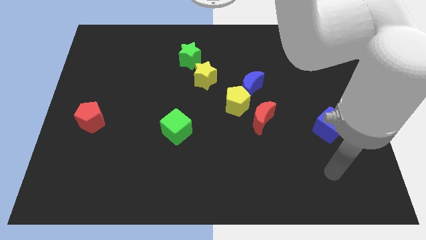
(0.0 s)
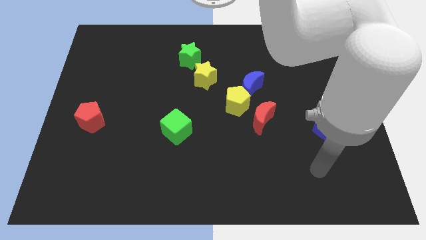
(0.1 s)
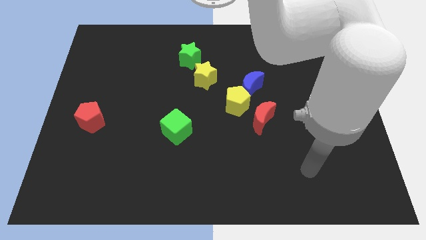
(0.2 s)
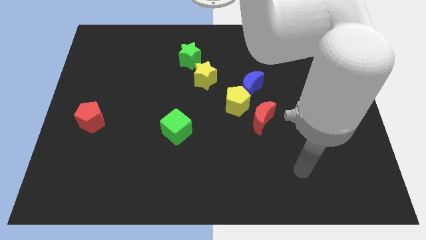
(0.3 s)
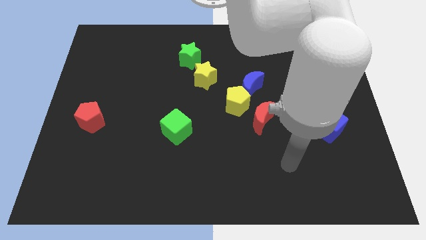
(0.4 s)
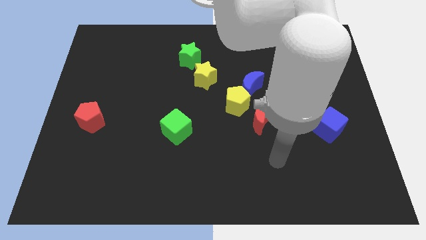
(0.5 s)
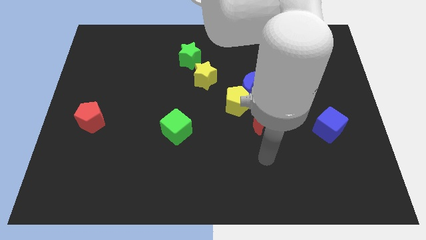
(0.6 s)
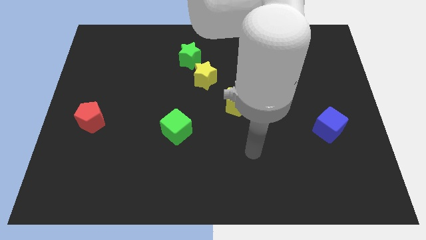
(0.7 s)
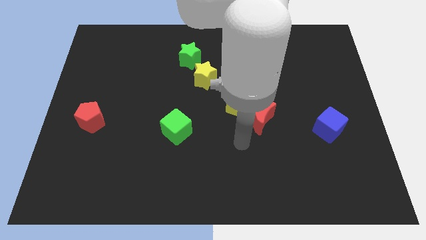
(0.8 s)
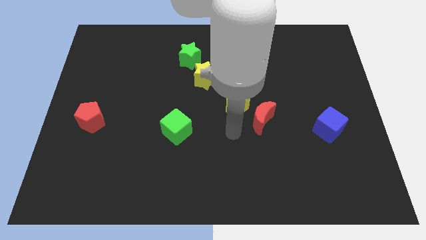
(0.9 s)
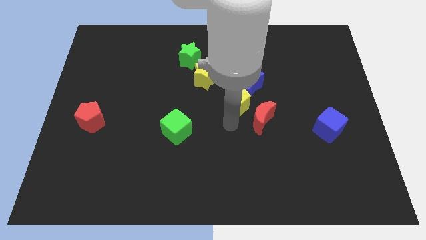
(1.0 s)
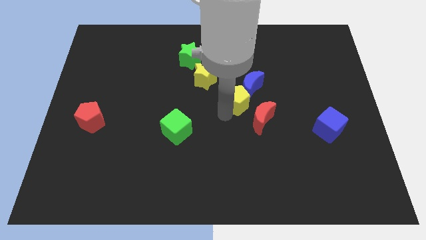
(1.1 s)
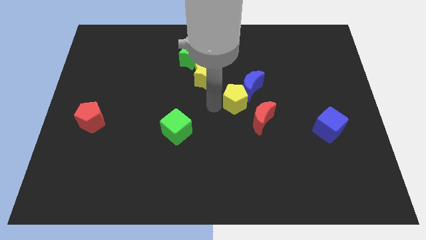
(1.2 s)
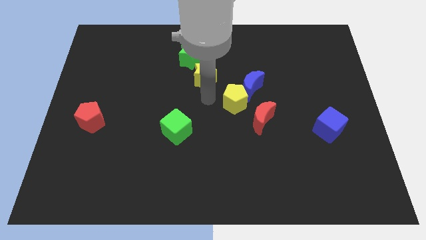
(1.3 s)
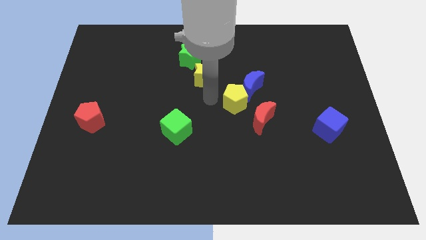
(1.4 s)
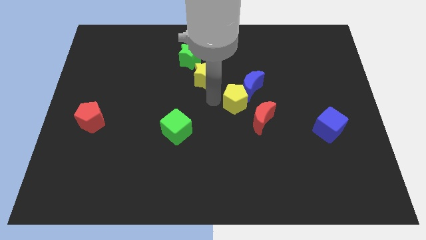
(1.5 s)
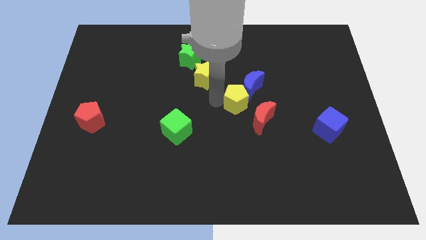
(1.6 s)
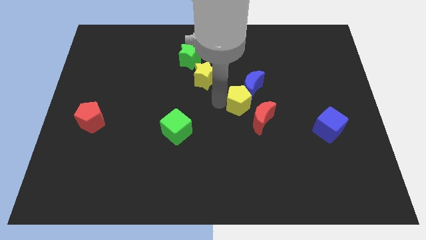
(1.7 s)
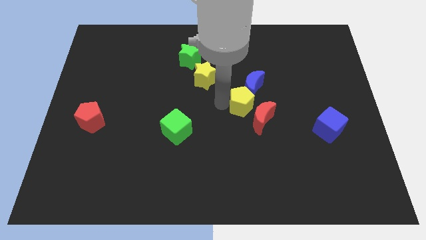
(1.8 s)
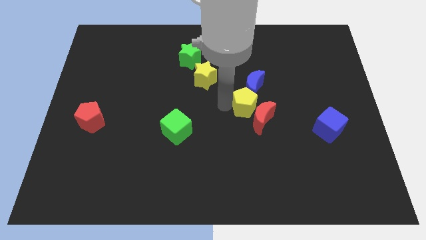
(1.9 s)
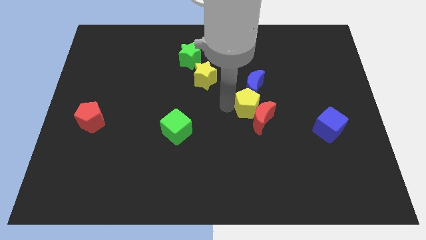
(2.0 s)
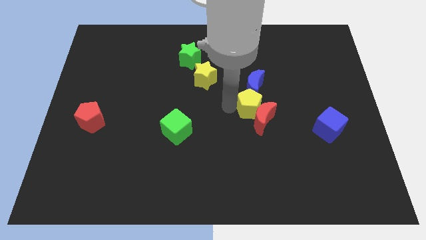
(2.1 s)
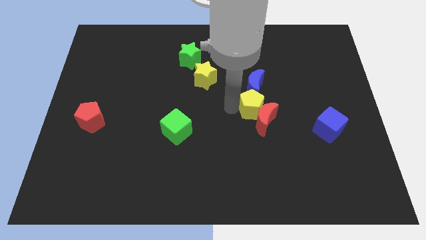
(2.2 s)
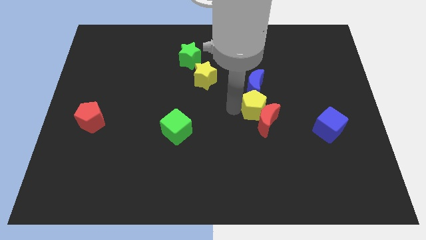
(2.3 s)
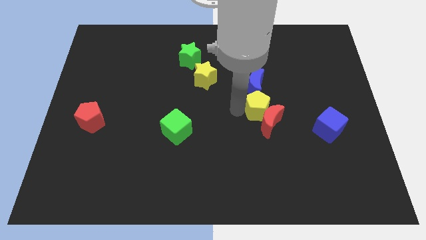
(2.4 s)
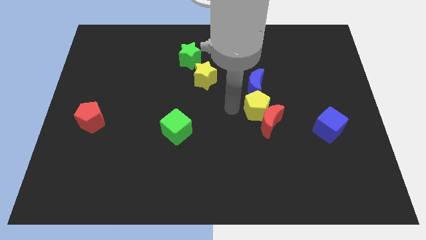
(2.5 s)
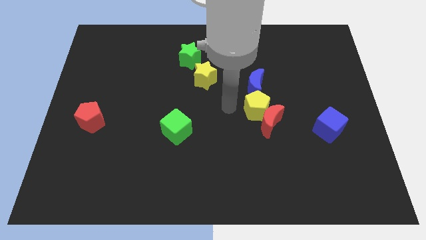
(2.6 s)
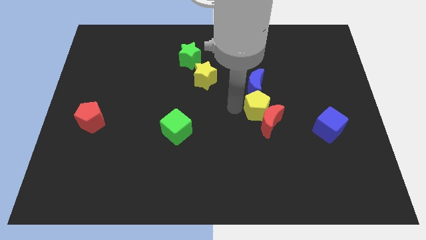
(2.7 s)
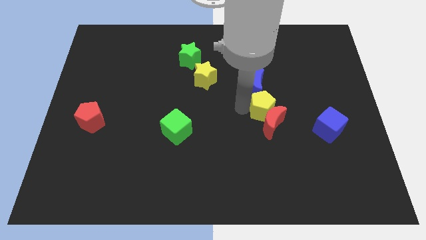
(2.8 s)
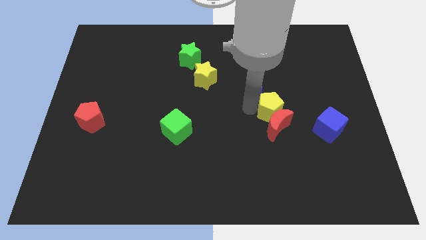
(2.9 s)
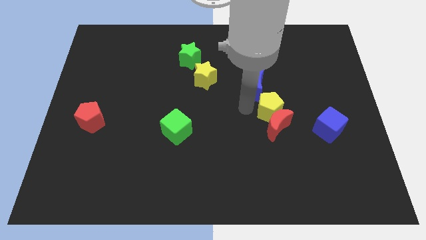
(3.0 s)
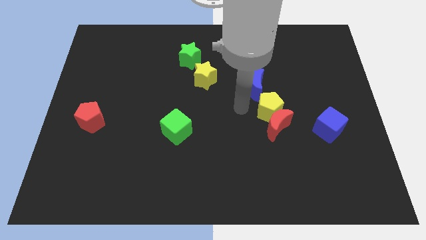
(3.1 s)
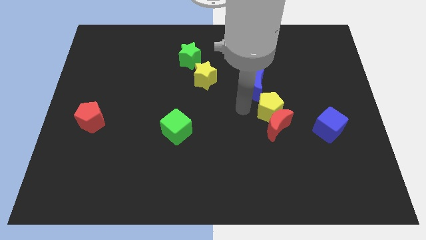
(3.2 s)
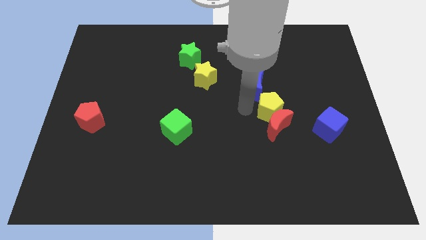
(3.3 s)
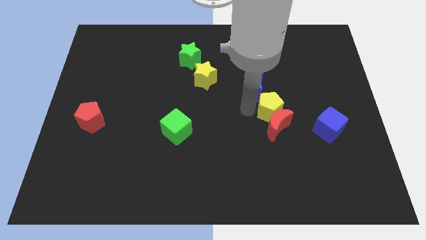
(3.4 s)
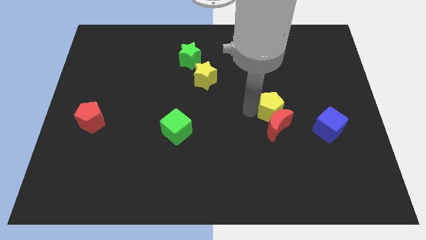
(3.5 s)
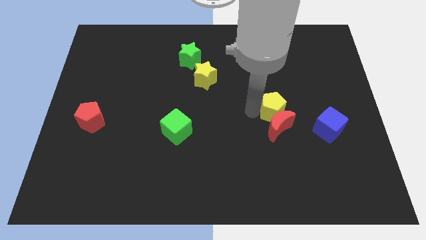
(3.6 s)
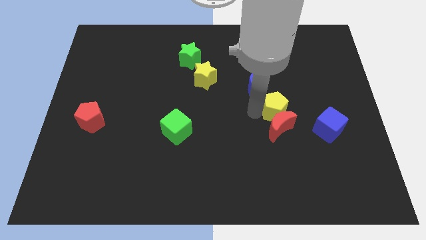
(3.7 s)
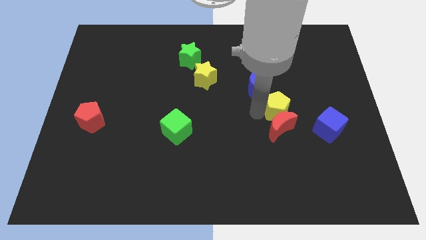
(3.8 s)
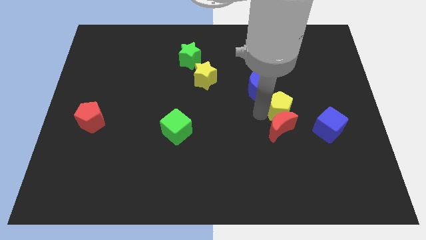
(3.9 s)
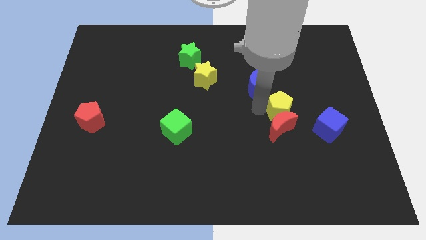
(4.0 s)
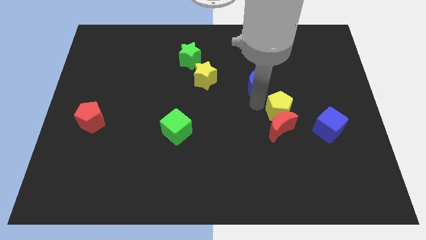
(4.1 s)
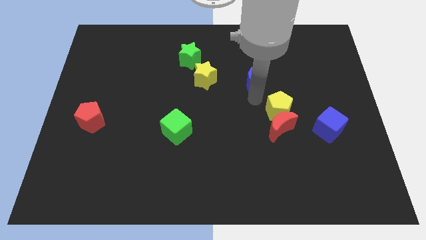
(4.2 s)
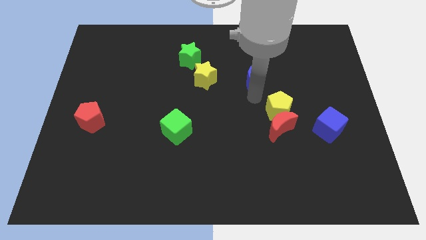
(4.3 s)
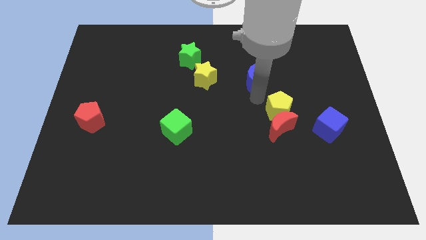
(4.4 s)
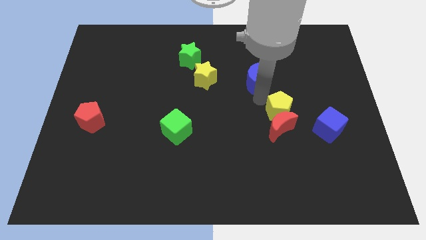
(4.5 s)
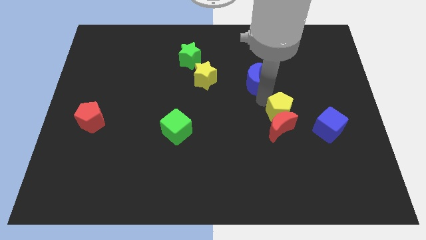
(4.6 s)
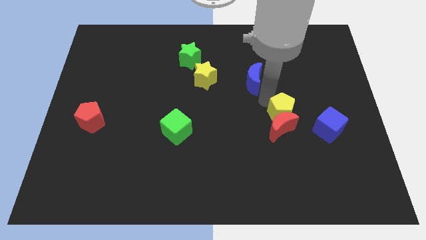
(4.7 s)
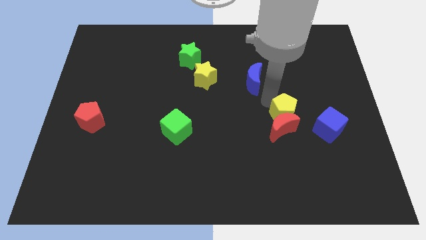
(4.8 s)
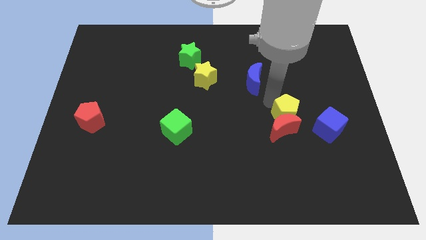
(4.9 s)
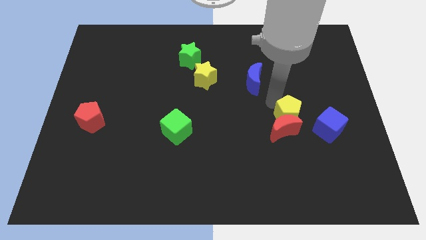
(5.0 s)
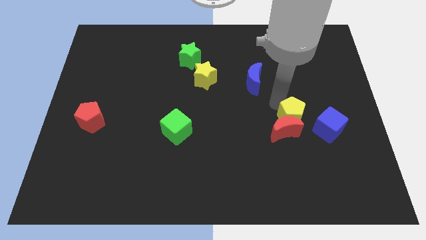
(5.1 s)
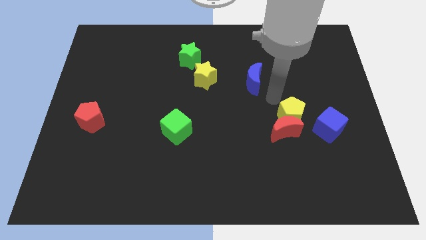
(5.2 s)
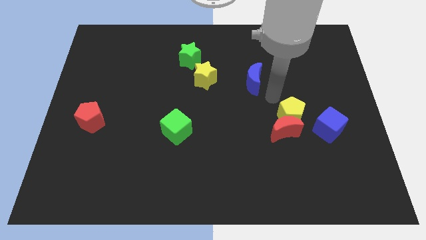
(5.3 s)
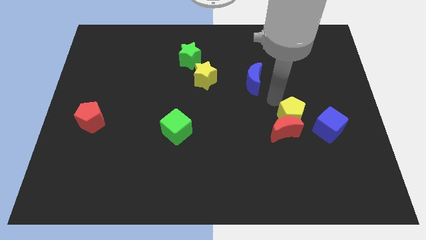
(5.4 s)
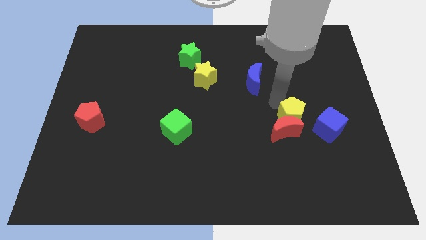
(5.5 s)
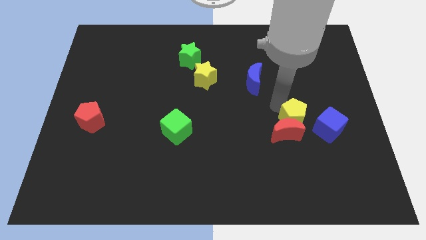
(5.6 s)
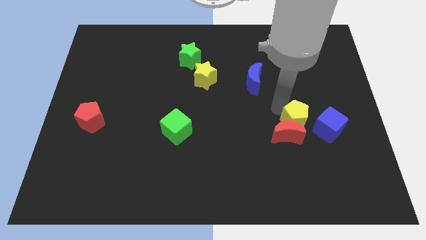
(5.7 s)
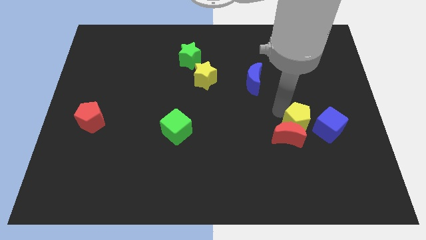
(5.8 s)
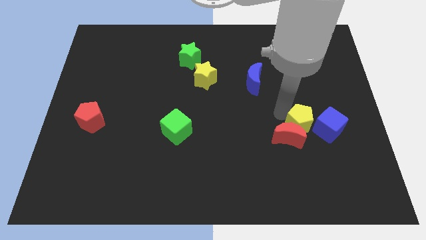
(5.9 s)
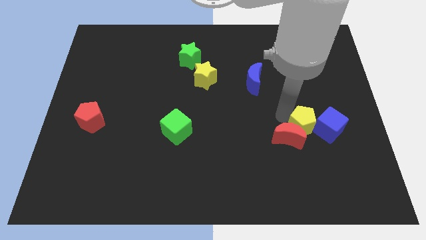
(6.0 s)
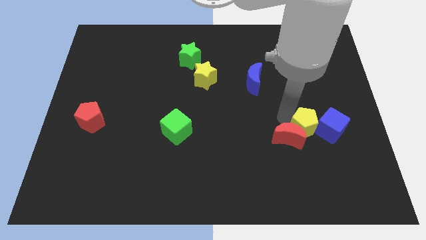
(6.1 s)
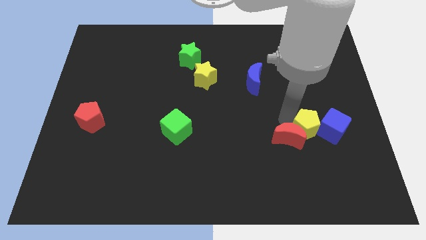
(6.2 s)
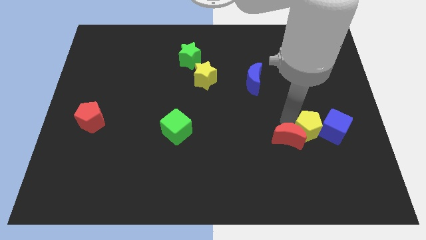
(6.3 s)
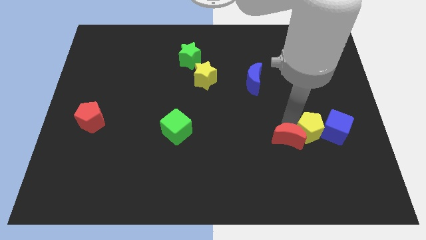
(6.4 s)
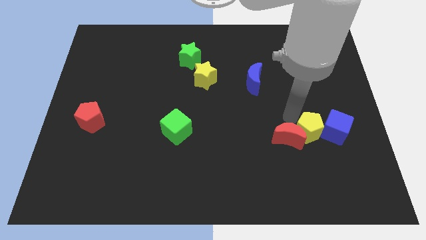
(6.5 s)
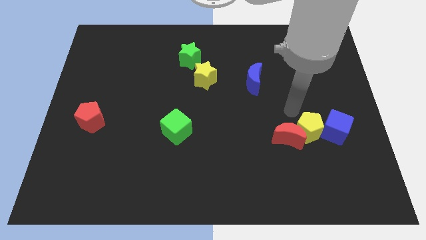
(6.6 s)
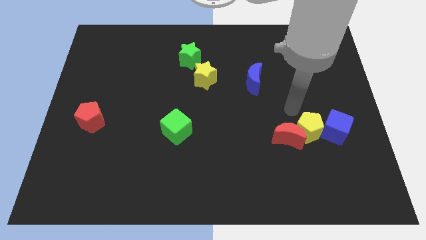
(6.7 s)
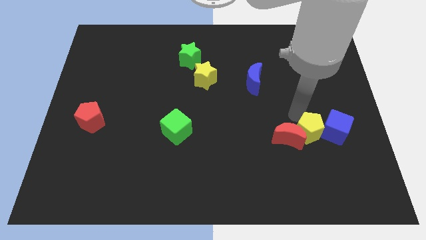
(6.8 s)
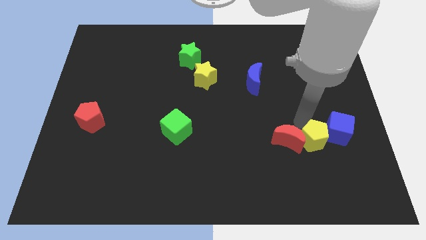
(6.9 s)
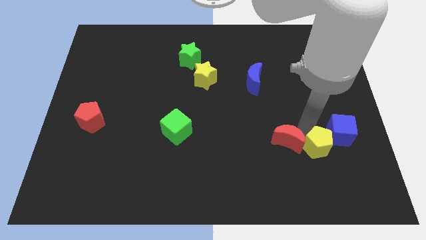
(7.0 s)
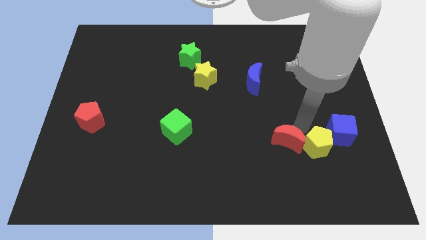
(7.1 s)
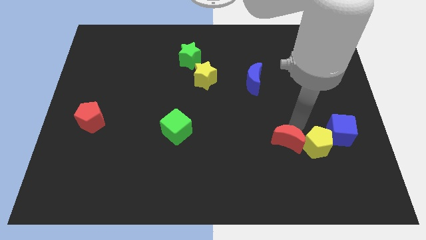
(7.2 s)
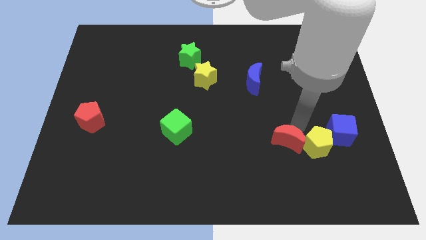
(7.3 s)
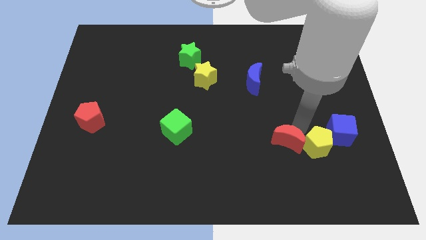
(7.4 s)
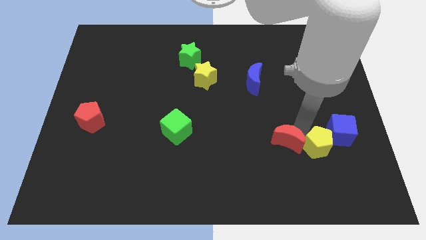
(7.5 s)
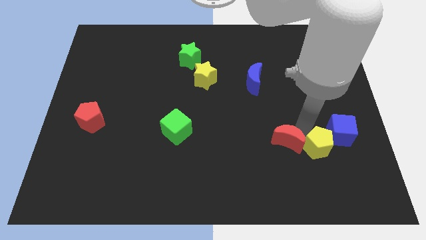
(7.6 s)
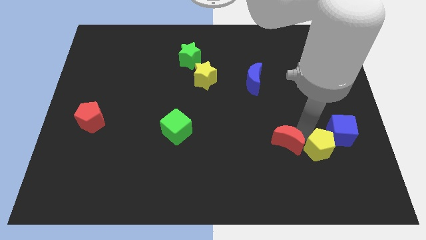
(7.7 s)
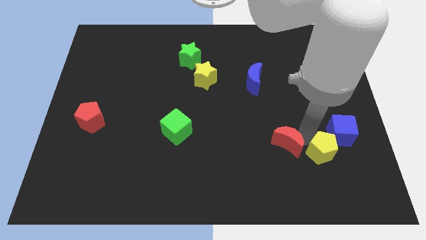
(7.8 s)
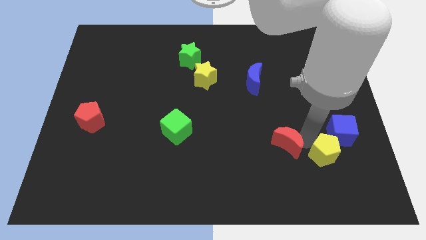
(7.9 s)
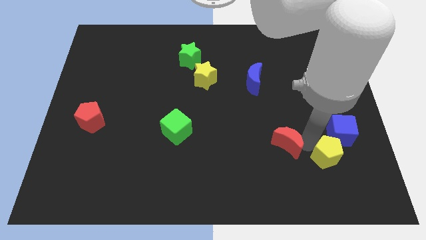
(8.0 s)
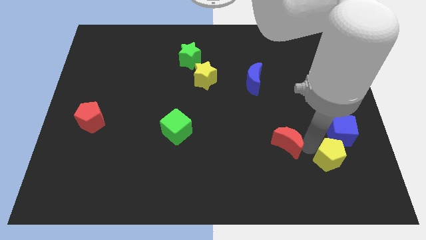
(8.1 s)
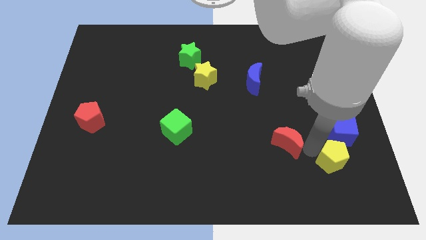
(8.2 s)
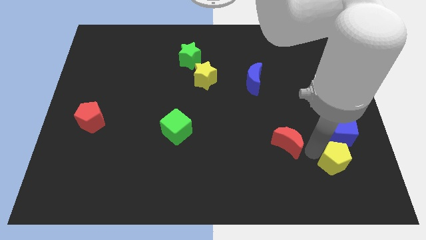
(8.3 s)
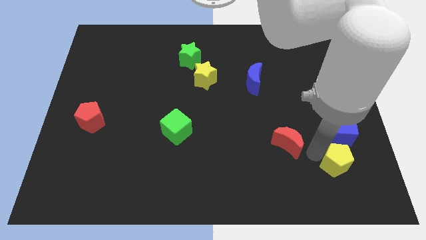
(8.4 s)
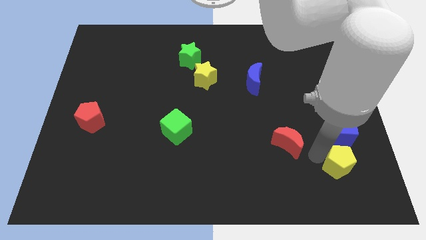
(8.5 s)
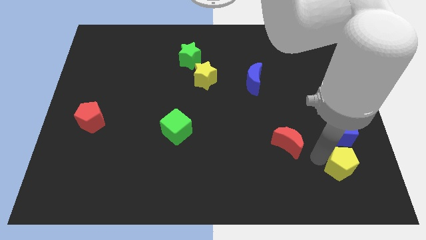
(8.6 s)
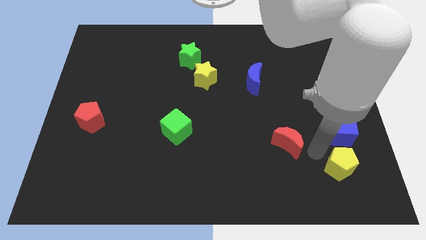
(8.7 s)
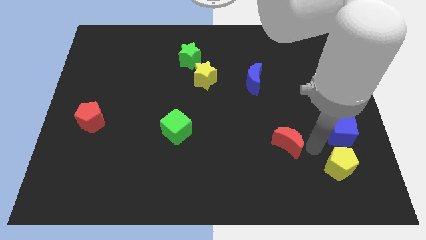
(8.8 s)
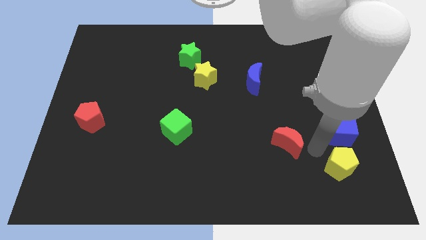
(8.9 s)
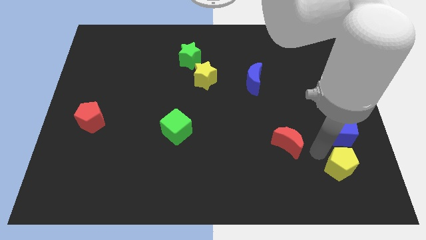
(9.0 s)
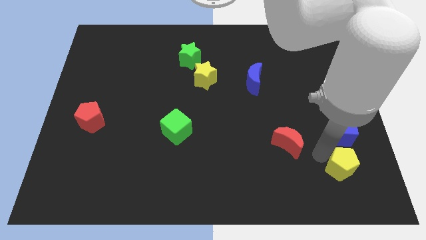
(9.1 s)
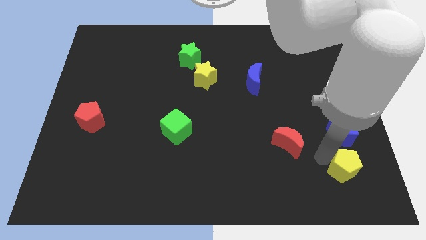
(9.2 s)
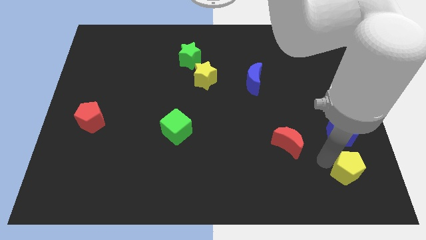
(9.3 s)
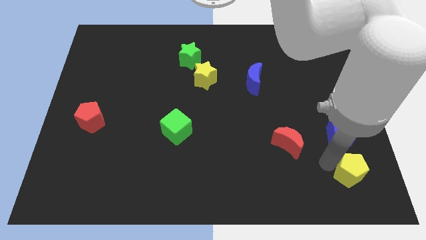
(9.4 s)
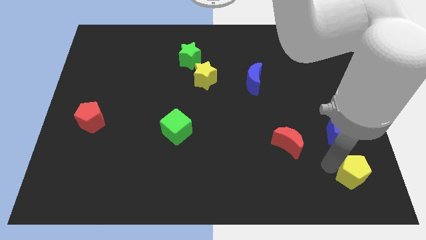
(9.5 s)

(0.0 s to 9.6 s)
put the yellow pentagon to the bottom right
